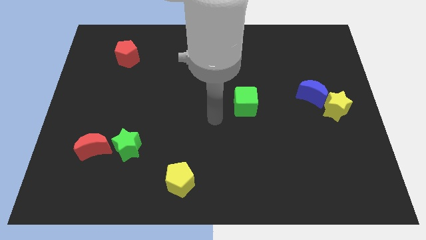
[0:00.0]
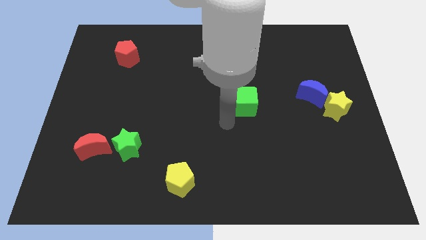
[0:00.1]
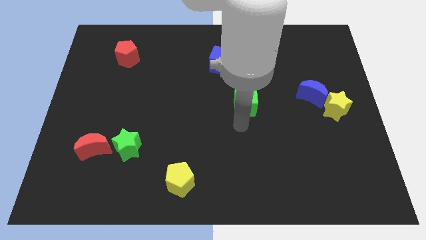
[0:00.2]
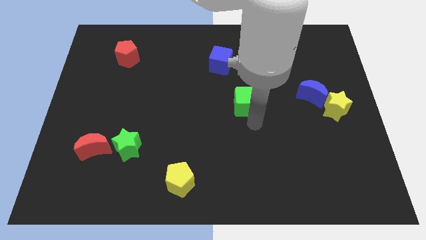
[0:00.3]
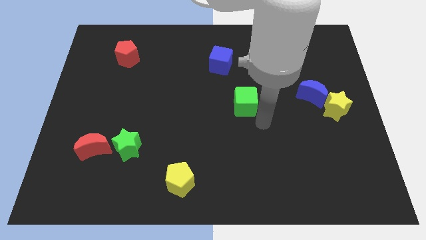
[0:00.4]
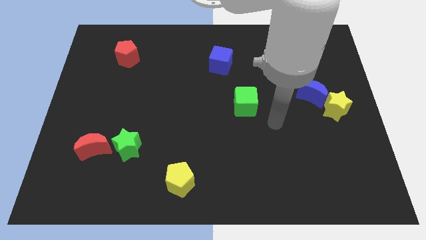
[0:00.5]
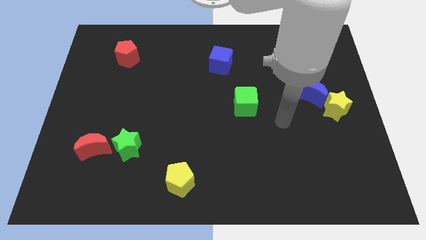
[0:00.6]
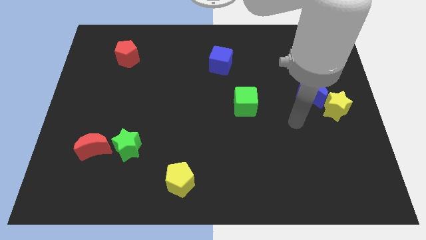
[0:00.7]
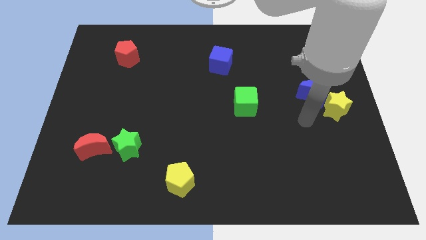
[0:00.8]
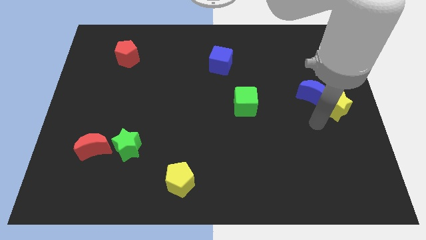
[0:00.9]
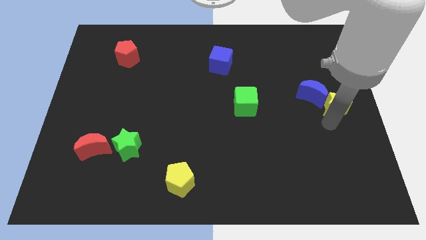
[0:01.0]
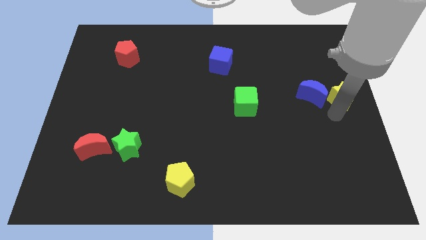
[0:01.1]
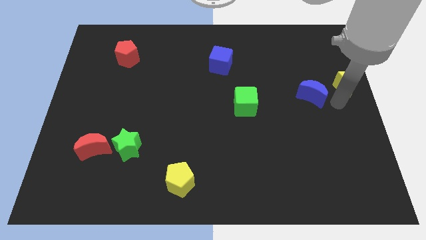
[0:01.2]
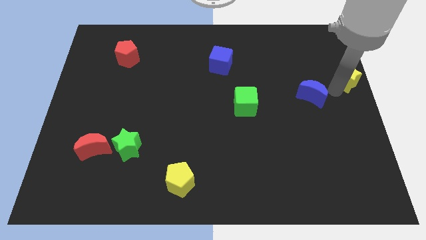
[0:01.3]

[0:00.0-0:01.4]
pull the blue moon apart from the yellow star

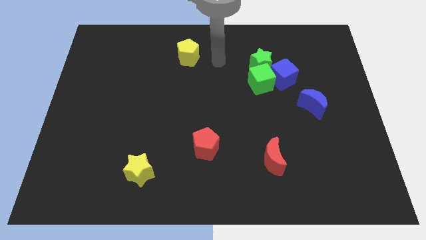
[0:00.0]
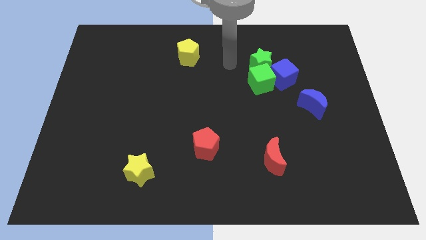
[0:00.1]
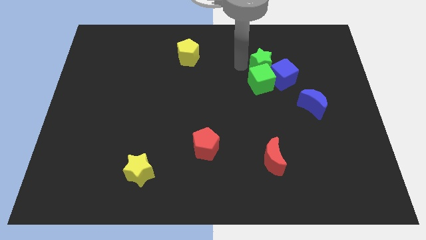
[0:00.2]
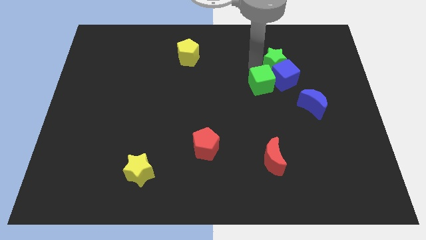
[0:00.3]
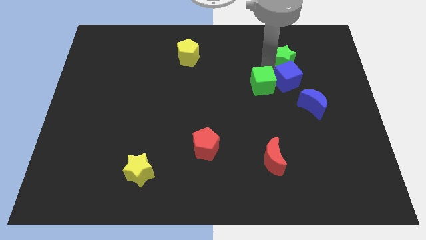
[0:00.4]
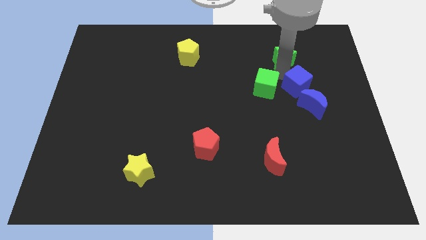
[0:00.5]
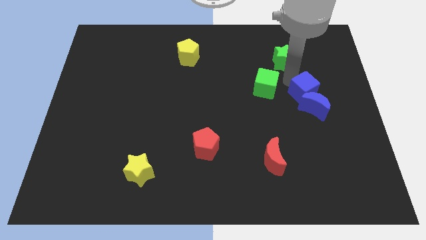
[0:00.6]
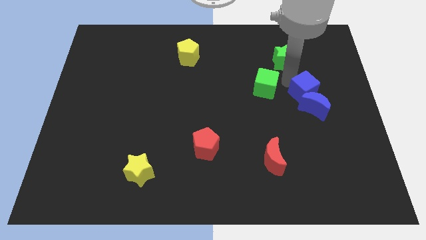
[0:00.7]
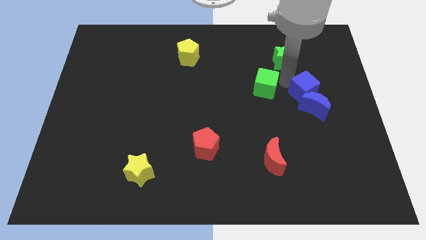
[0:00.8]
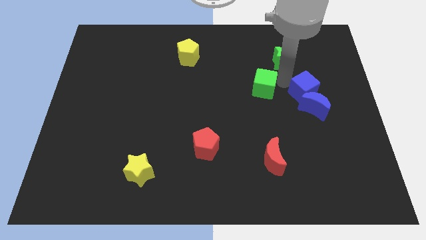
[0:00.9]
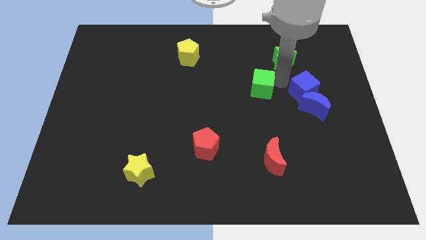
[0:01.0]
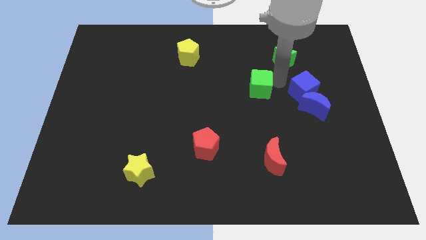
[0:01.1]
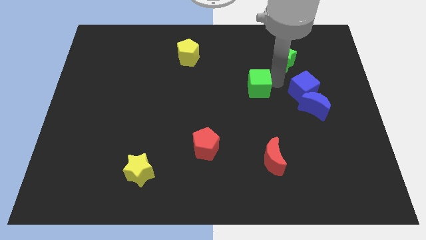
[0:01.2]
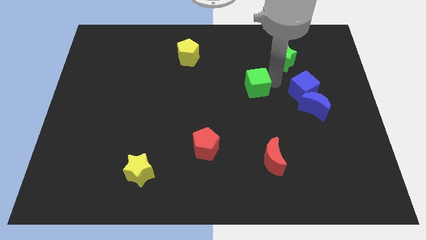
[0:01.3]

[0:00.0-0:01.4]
pull the green cube apart from the blue cube and green star

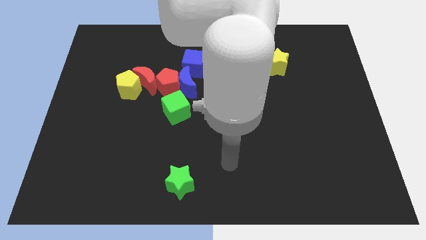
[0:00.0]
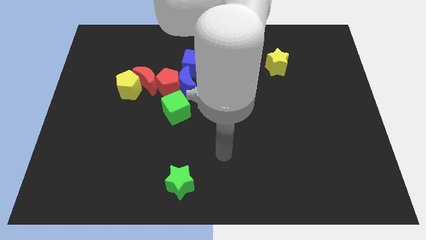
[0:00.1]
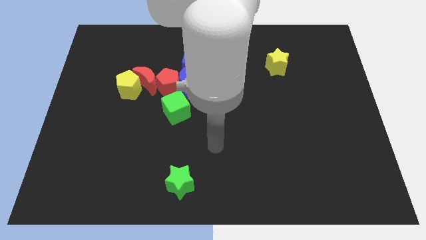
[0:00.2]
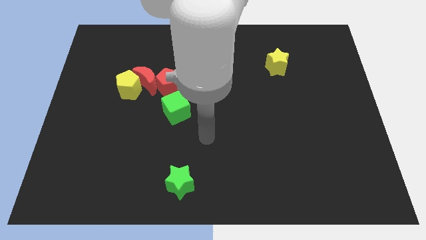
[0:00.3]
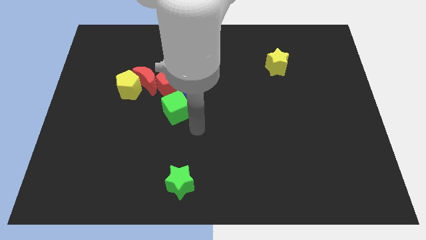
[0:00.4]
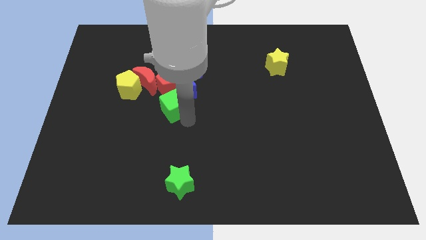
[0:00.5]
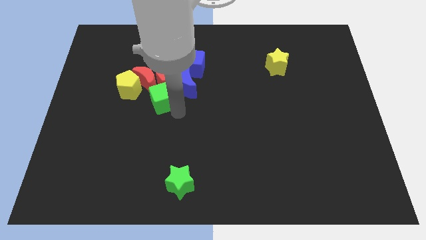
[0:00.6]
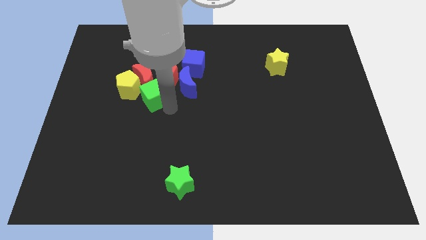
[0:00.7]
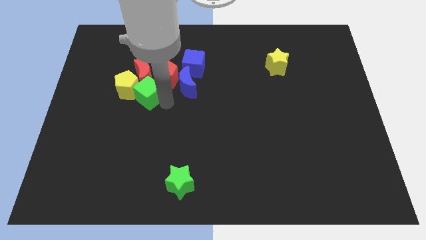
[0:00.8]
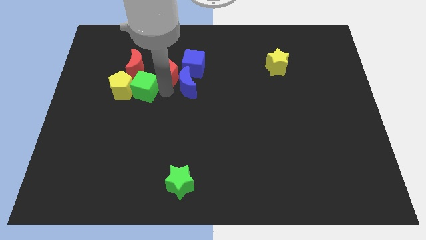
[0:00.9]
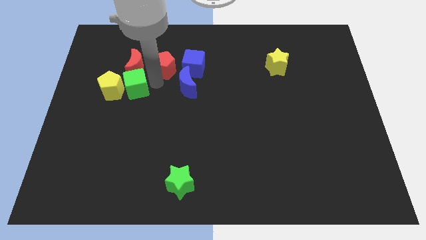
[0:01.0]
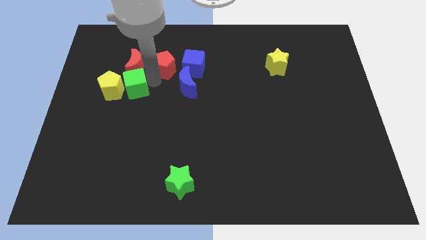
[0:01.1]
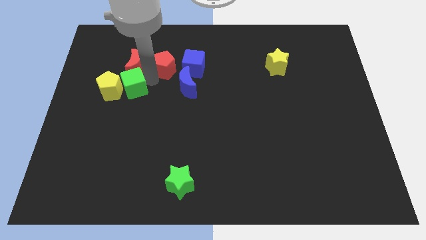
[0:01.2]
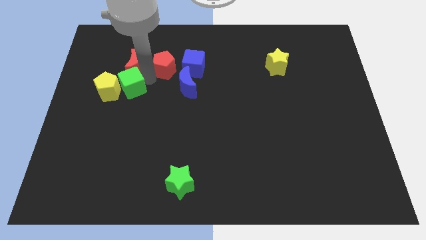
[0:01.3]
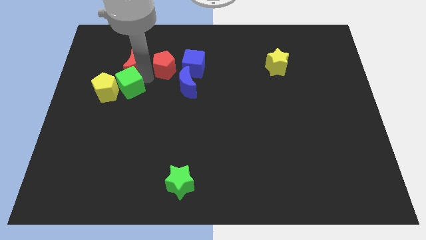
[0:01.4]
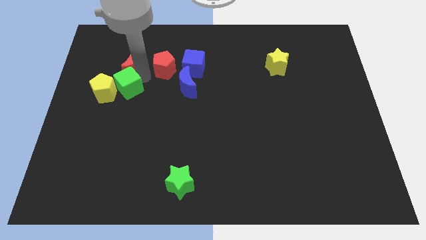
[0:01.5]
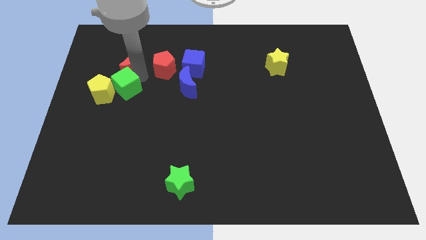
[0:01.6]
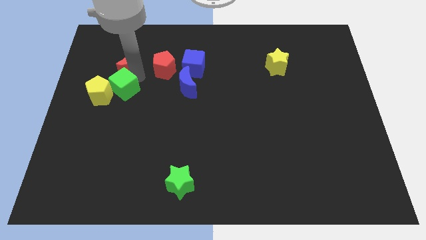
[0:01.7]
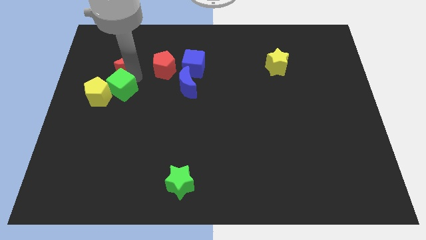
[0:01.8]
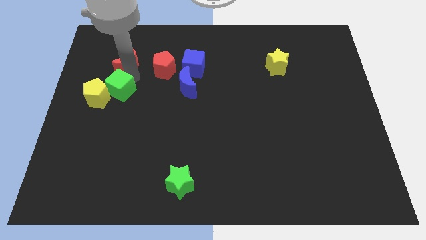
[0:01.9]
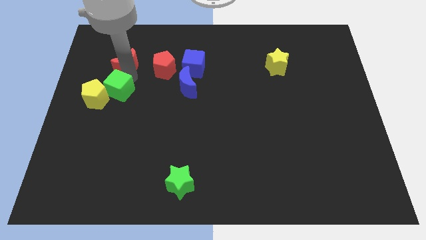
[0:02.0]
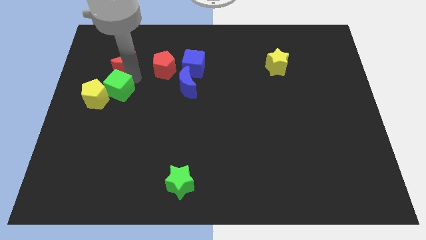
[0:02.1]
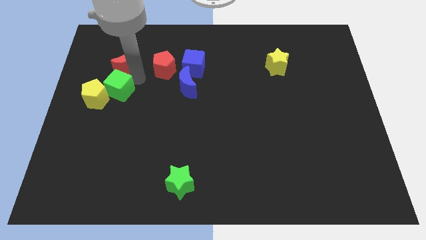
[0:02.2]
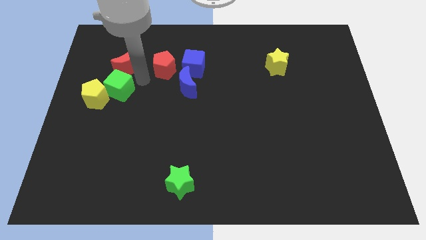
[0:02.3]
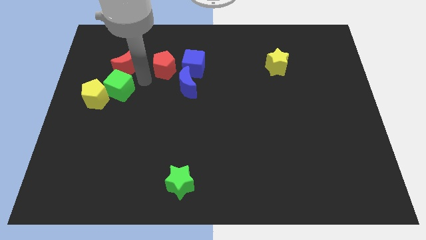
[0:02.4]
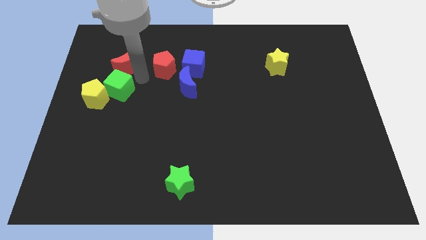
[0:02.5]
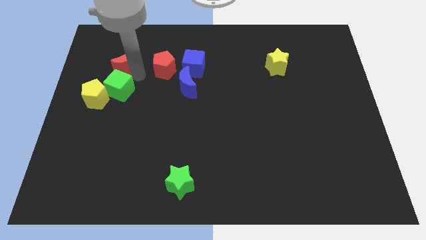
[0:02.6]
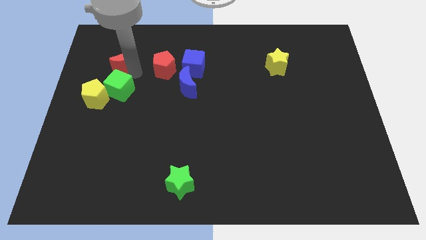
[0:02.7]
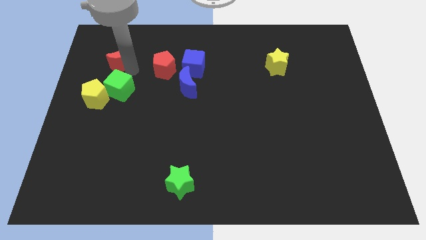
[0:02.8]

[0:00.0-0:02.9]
pull the red moon apart from the yellow pentagon, red pentagon, and blue moon

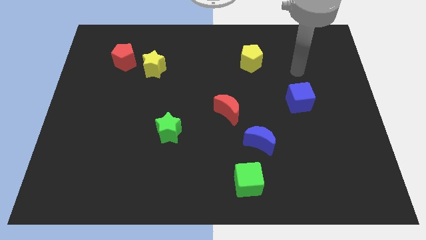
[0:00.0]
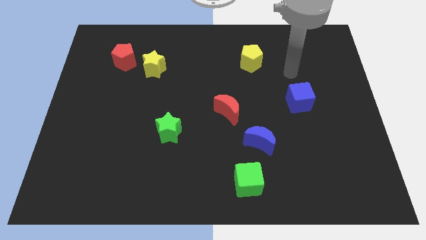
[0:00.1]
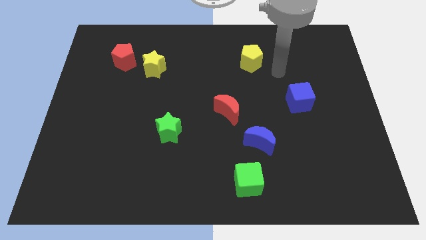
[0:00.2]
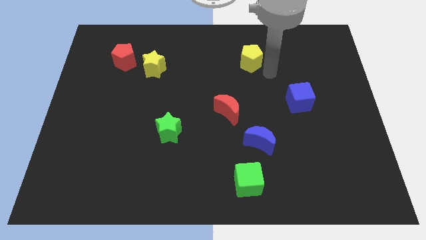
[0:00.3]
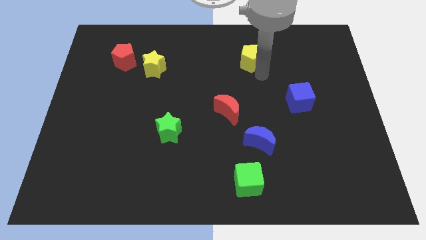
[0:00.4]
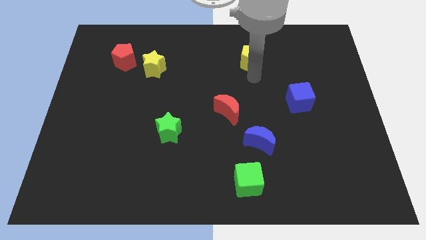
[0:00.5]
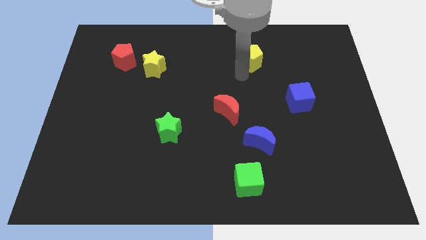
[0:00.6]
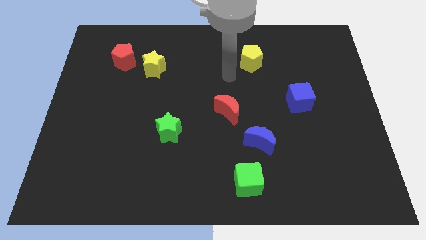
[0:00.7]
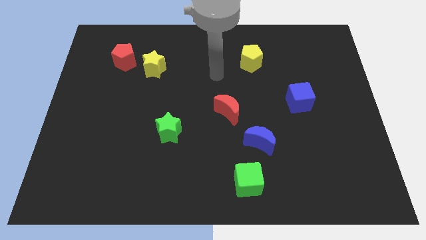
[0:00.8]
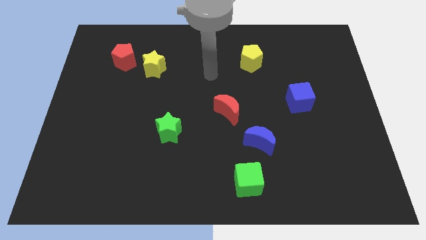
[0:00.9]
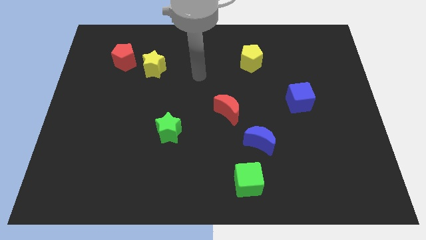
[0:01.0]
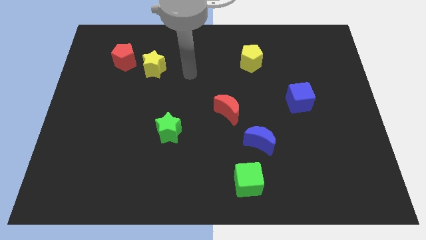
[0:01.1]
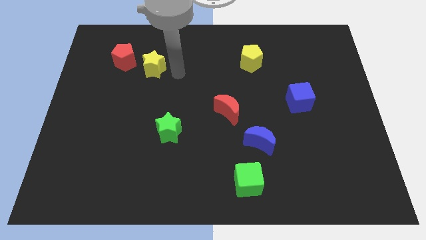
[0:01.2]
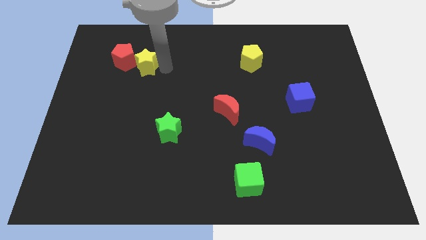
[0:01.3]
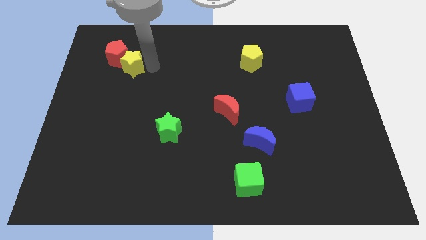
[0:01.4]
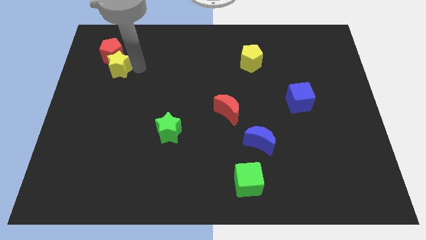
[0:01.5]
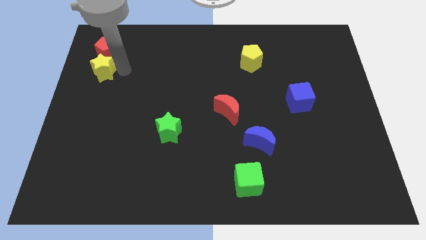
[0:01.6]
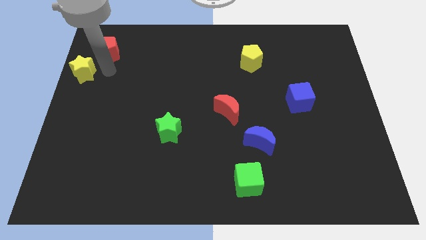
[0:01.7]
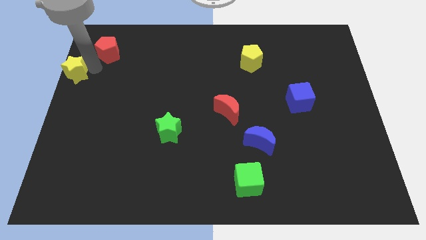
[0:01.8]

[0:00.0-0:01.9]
move the red pentagon away from the yellow star

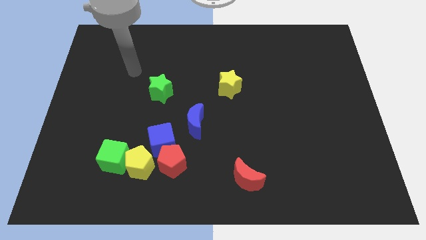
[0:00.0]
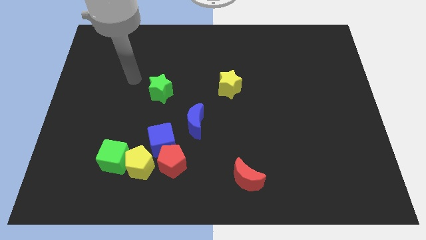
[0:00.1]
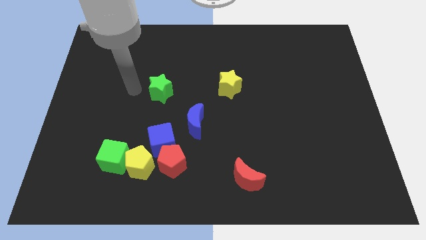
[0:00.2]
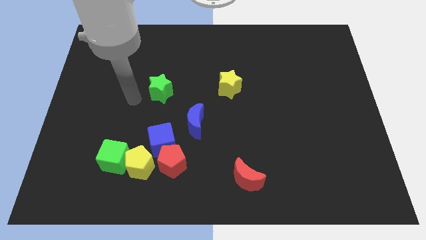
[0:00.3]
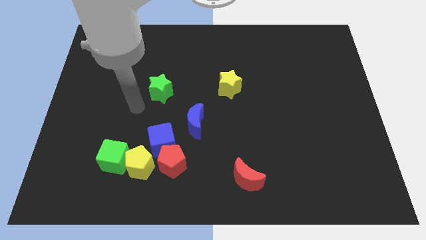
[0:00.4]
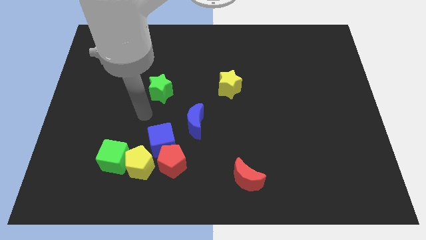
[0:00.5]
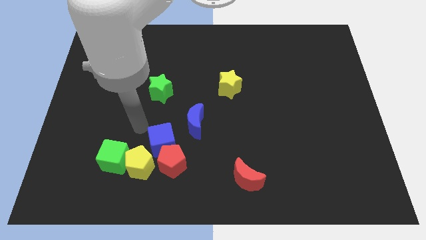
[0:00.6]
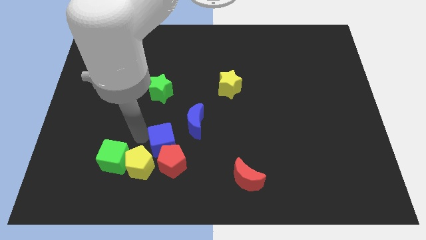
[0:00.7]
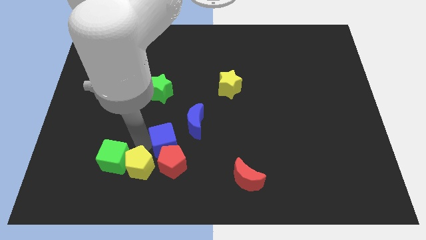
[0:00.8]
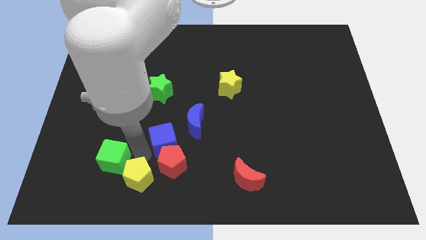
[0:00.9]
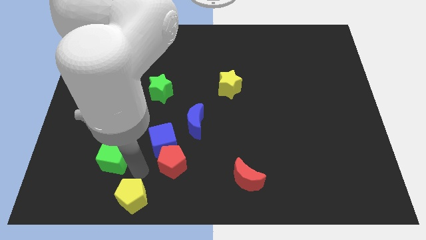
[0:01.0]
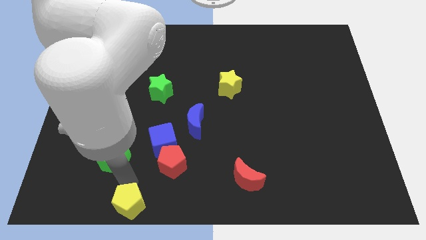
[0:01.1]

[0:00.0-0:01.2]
move the green cube away from the yellow pentagon

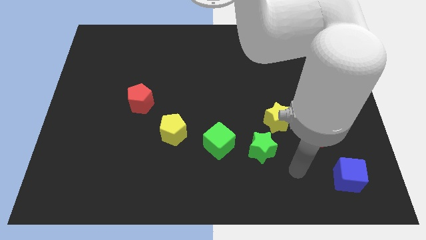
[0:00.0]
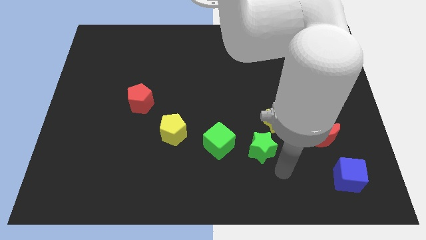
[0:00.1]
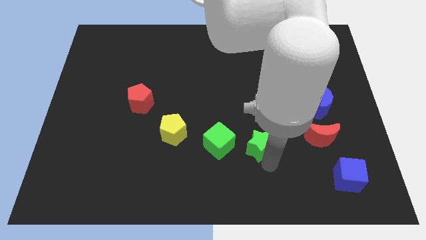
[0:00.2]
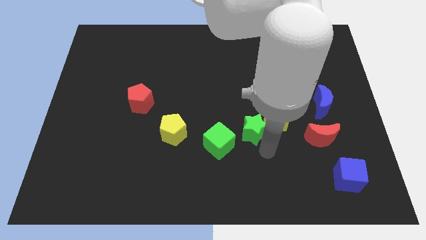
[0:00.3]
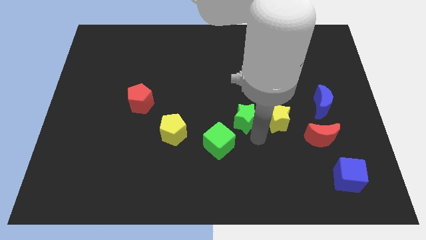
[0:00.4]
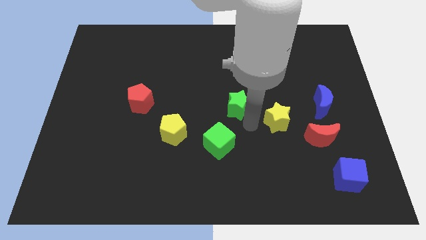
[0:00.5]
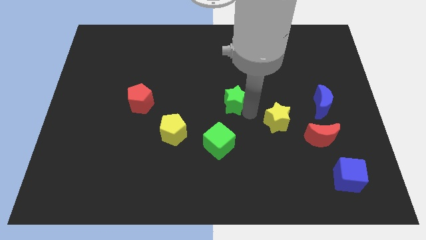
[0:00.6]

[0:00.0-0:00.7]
separate the yellow star from the green star
